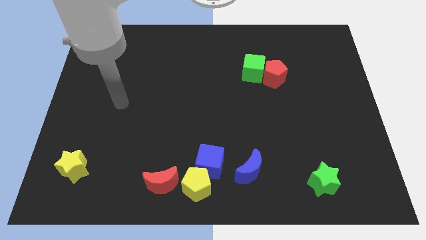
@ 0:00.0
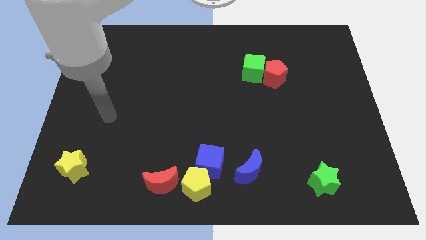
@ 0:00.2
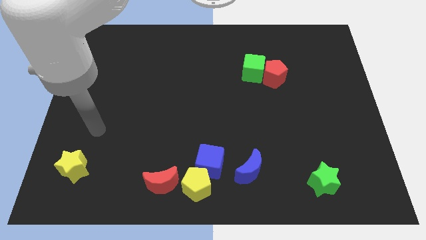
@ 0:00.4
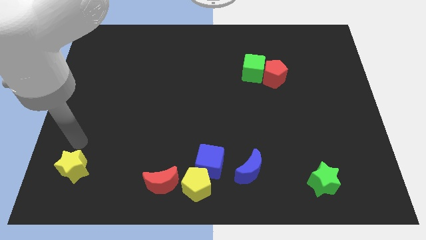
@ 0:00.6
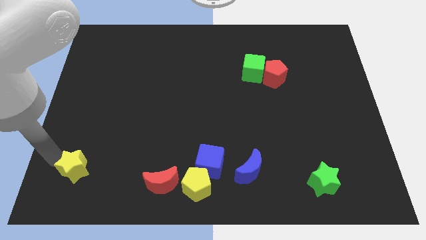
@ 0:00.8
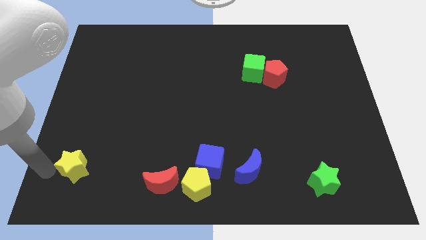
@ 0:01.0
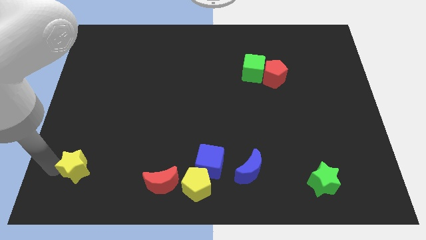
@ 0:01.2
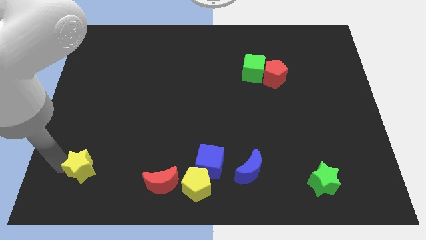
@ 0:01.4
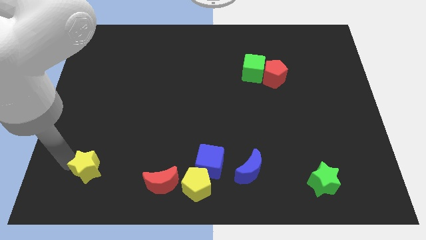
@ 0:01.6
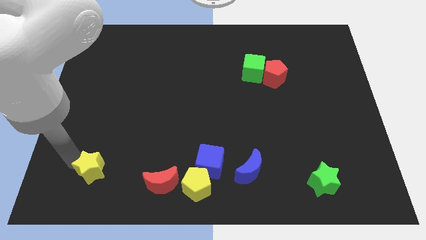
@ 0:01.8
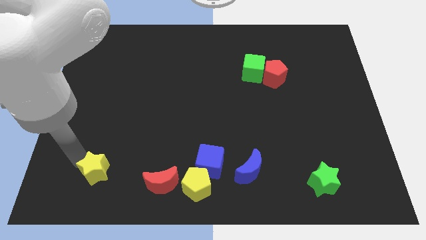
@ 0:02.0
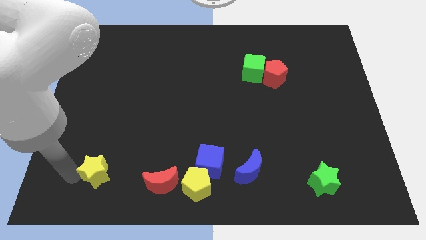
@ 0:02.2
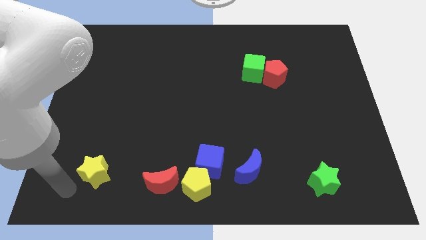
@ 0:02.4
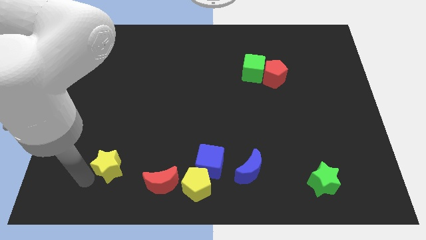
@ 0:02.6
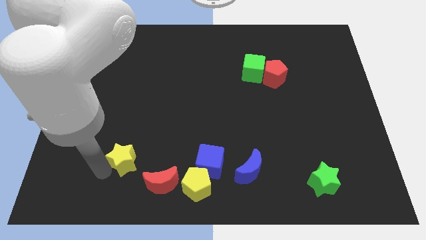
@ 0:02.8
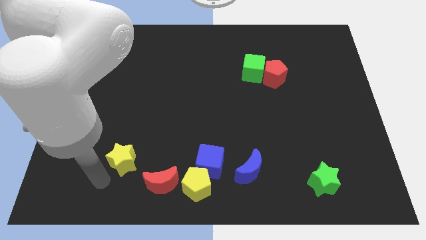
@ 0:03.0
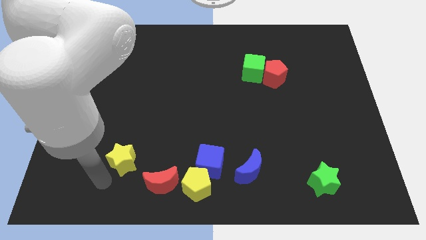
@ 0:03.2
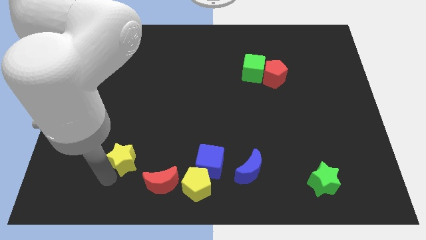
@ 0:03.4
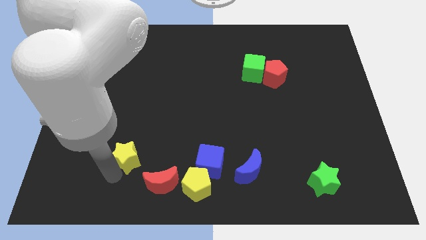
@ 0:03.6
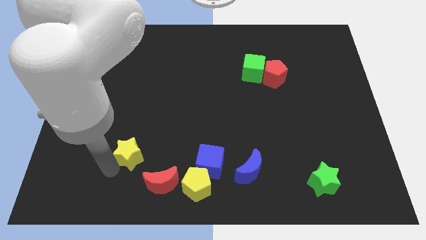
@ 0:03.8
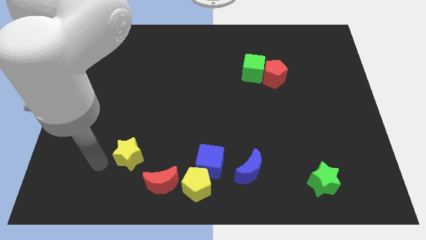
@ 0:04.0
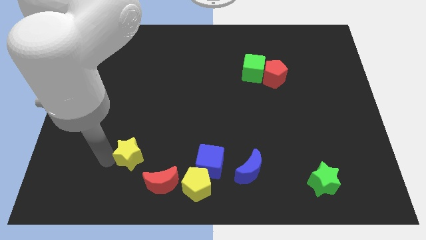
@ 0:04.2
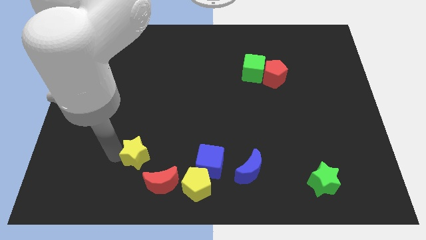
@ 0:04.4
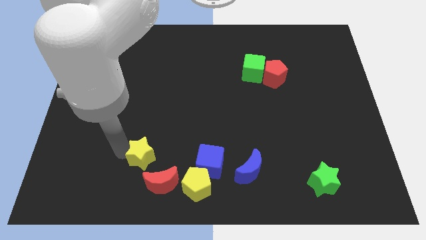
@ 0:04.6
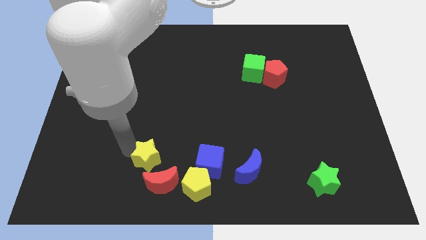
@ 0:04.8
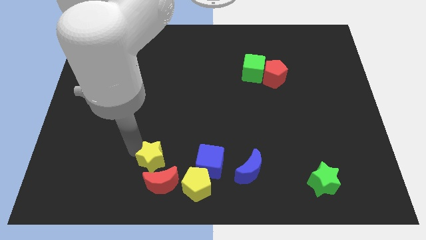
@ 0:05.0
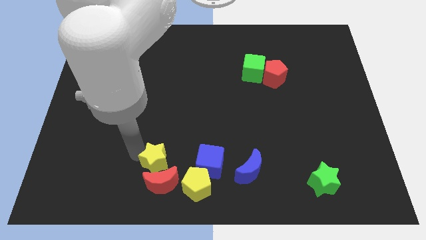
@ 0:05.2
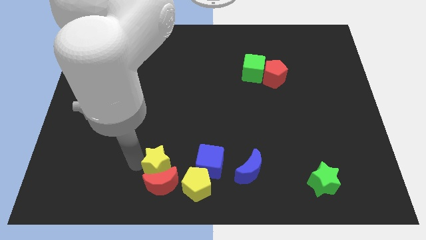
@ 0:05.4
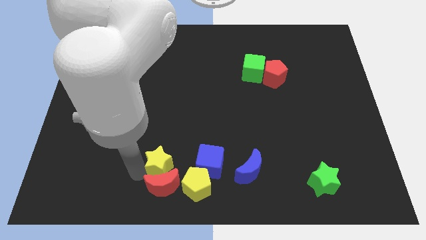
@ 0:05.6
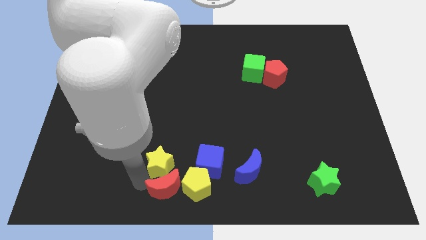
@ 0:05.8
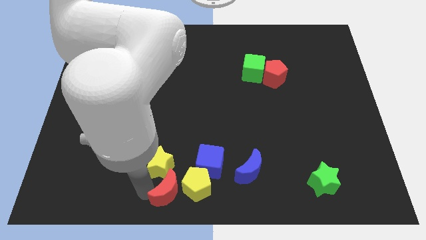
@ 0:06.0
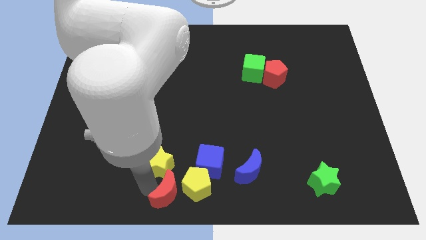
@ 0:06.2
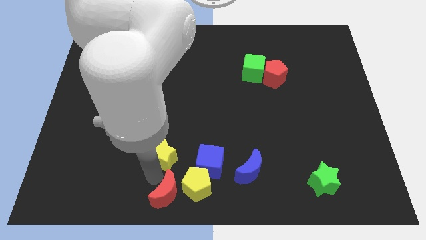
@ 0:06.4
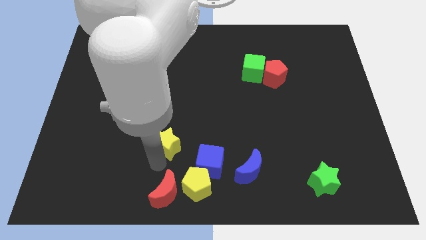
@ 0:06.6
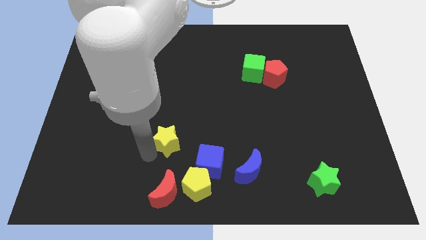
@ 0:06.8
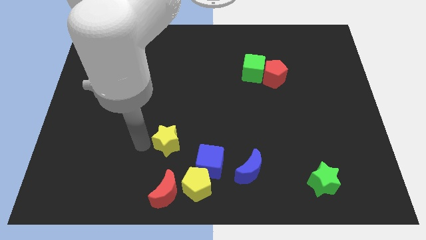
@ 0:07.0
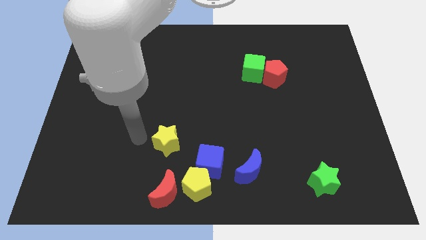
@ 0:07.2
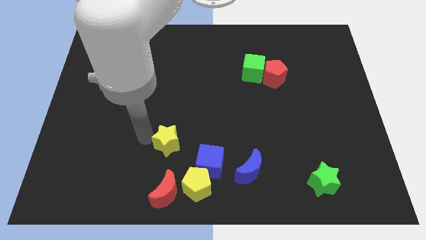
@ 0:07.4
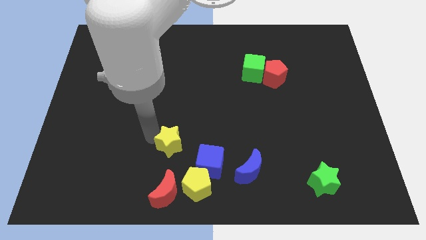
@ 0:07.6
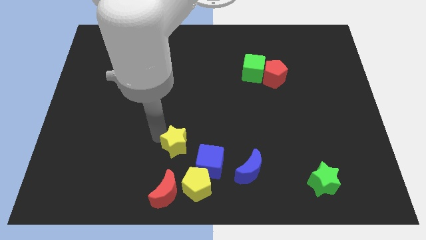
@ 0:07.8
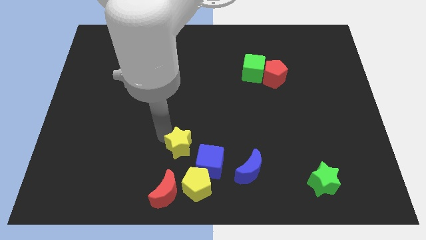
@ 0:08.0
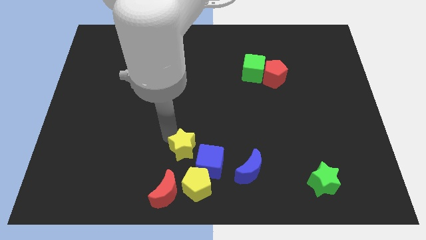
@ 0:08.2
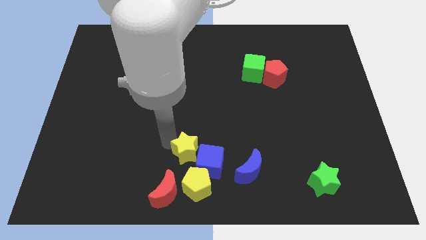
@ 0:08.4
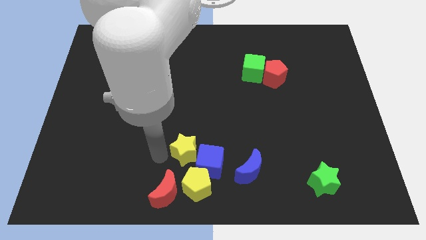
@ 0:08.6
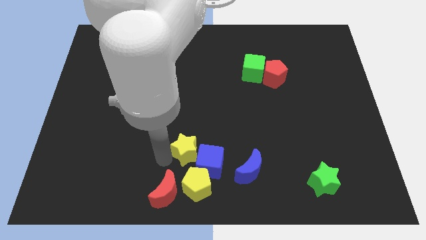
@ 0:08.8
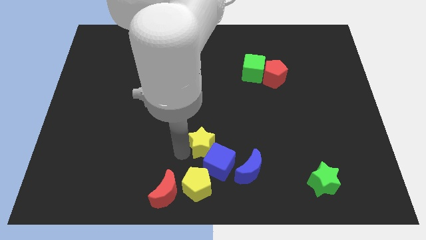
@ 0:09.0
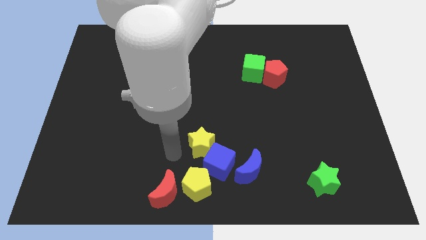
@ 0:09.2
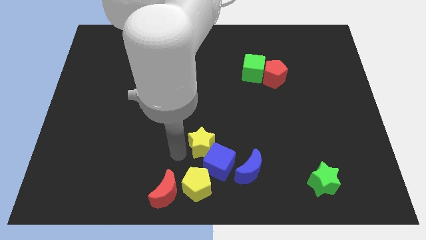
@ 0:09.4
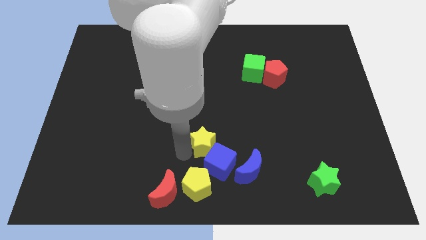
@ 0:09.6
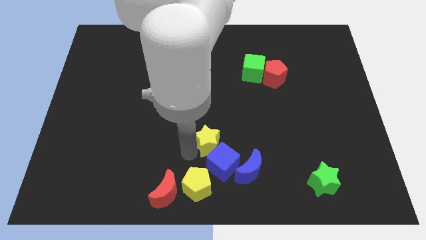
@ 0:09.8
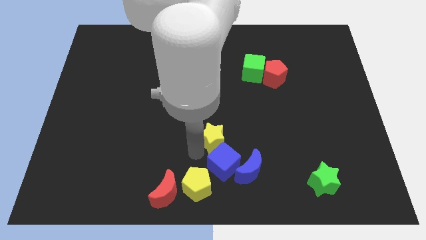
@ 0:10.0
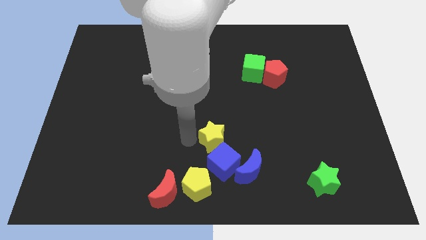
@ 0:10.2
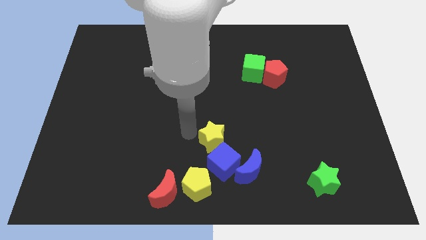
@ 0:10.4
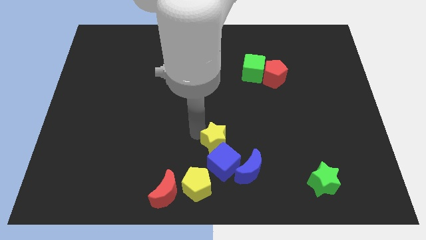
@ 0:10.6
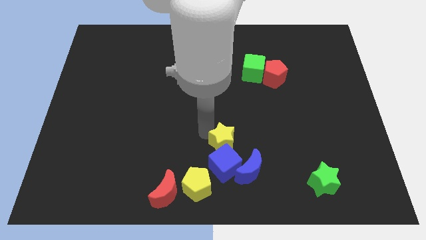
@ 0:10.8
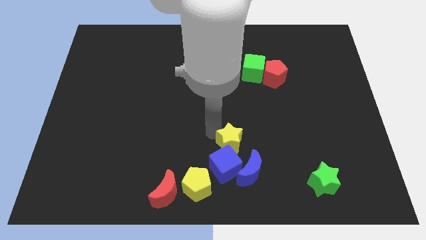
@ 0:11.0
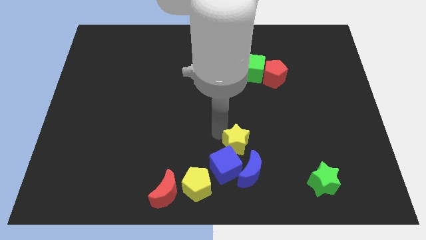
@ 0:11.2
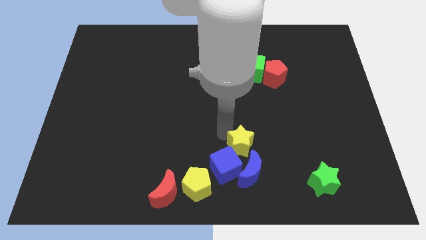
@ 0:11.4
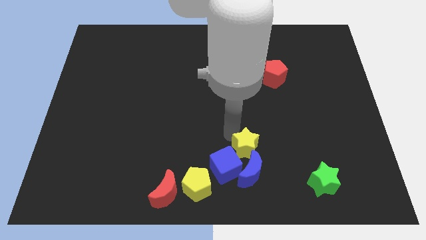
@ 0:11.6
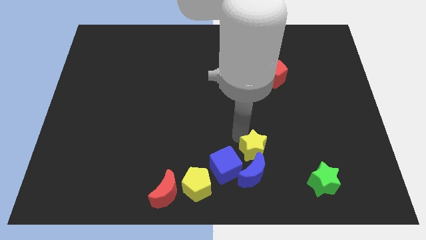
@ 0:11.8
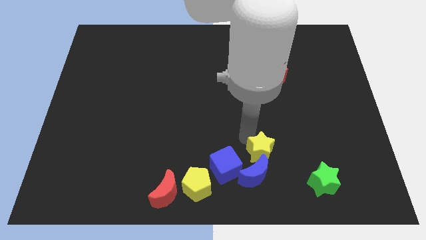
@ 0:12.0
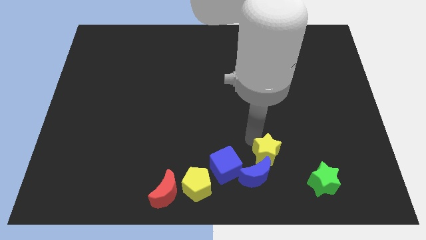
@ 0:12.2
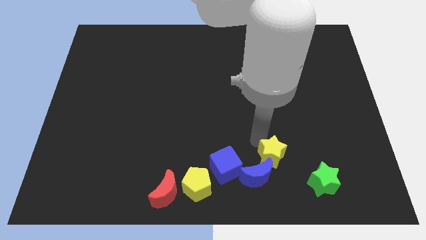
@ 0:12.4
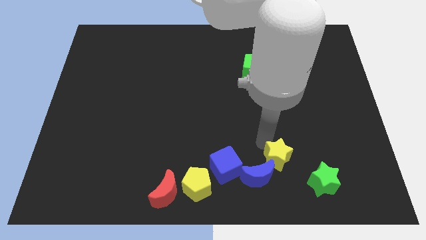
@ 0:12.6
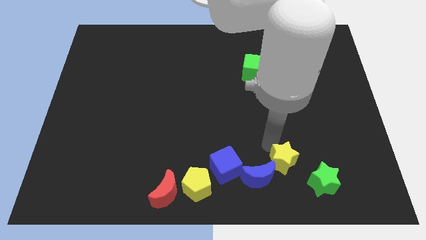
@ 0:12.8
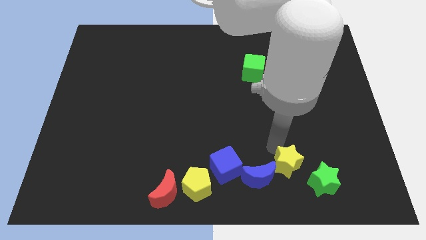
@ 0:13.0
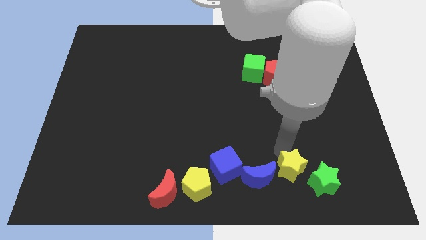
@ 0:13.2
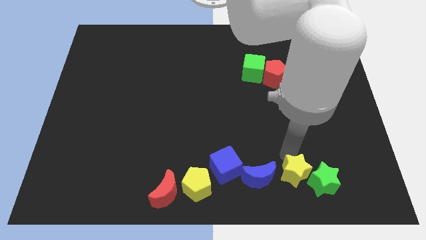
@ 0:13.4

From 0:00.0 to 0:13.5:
put the yellow star close to the green star

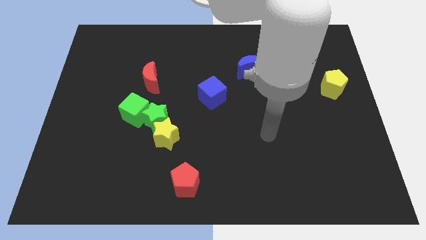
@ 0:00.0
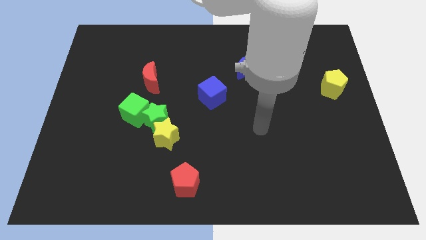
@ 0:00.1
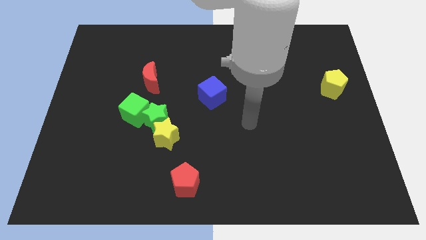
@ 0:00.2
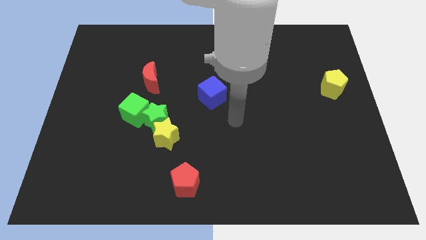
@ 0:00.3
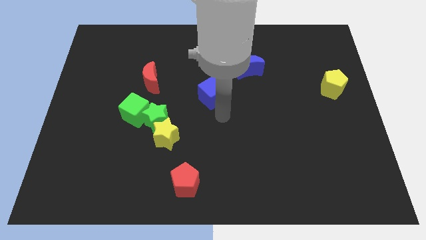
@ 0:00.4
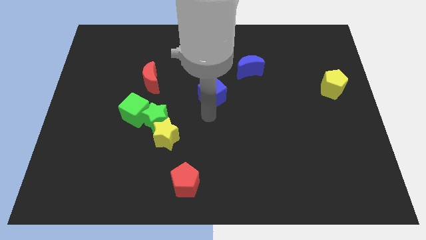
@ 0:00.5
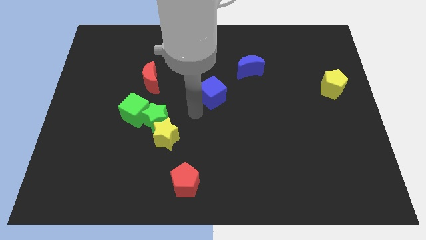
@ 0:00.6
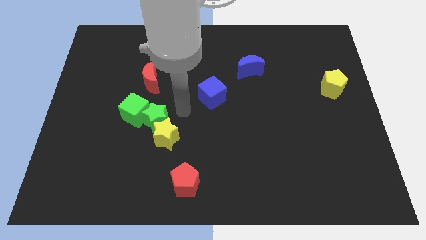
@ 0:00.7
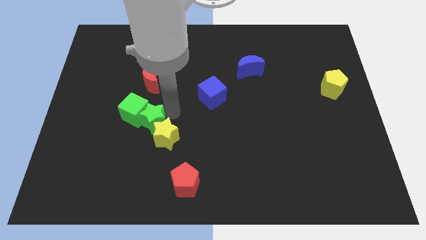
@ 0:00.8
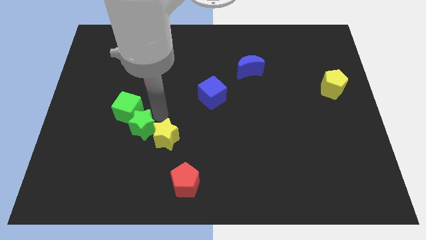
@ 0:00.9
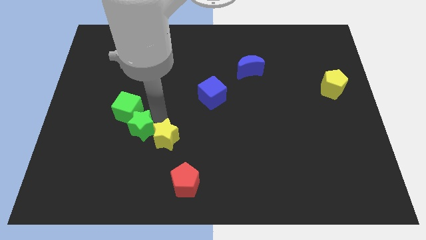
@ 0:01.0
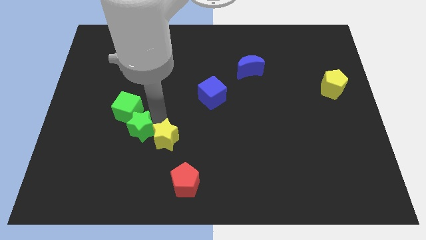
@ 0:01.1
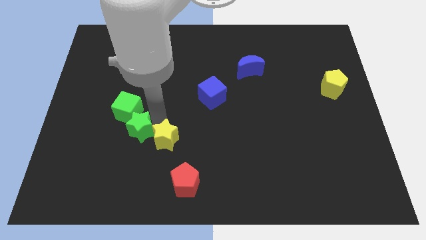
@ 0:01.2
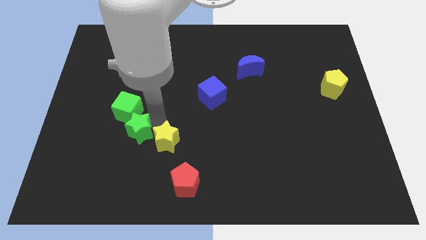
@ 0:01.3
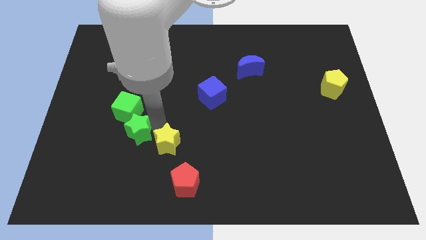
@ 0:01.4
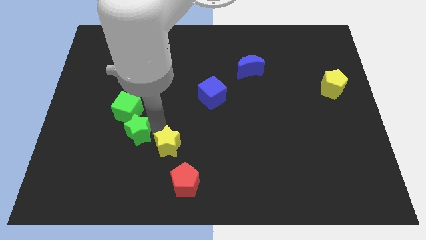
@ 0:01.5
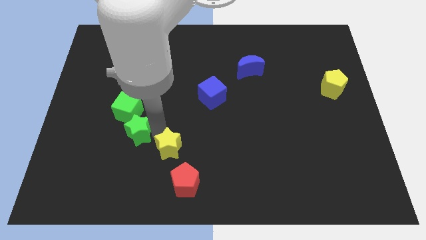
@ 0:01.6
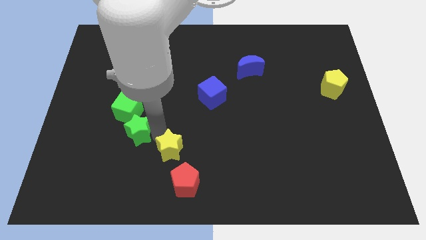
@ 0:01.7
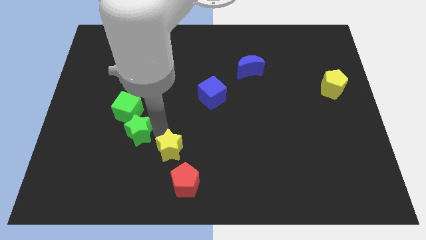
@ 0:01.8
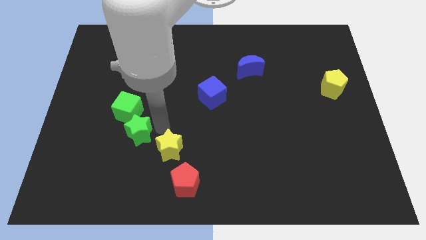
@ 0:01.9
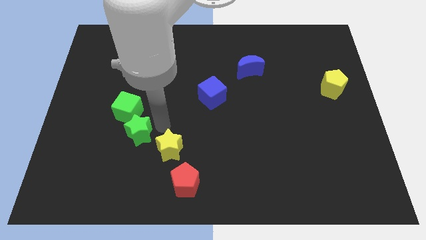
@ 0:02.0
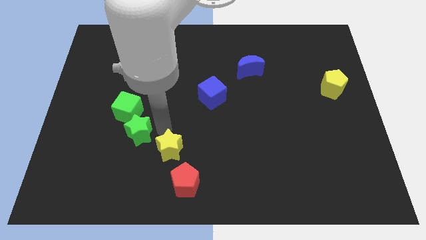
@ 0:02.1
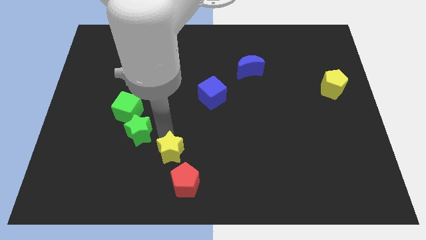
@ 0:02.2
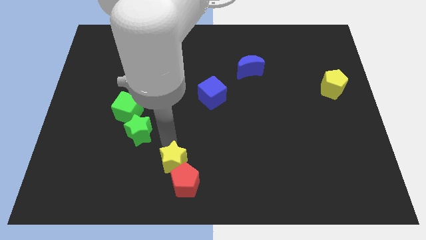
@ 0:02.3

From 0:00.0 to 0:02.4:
slide the yellow star close to the red pentagon
